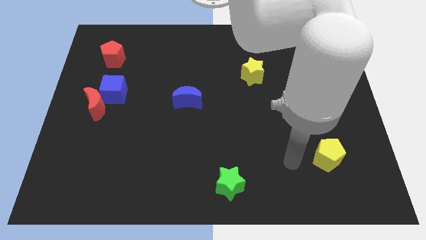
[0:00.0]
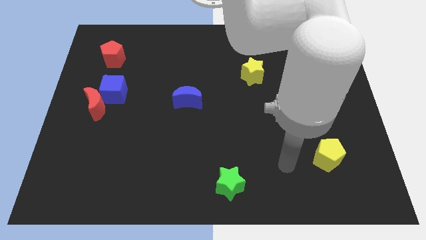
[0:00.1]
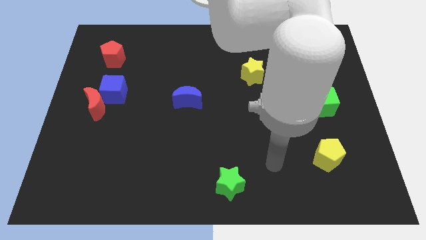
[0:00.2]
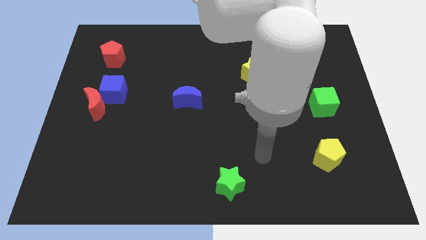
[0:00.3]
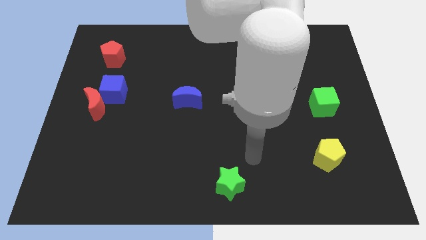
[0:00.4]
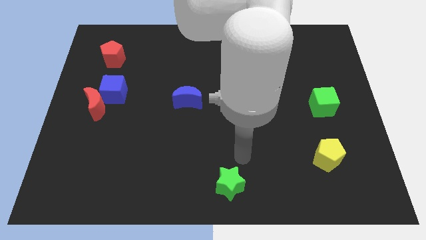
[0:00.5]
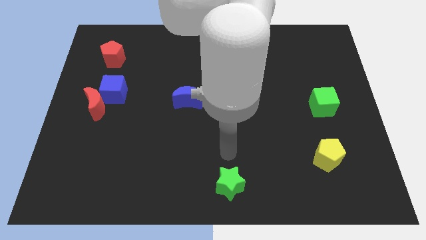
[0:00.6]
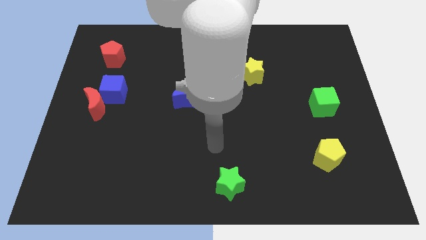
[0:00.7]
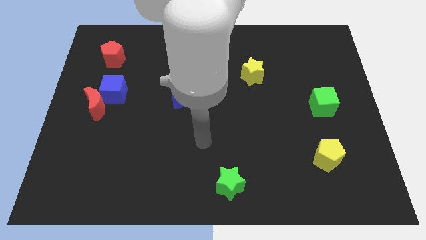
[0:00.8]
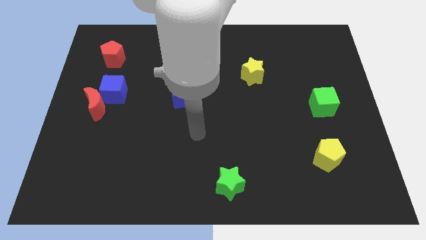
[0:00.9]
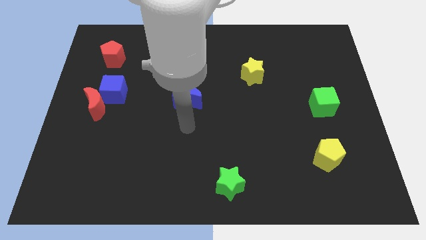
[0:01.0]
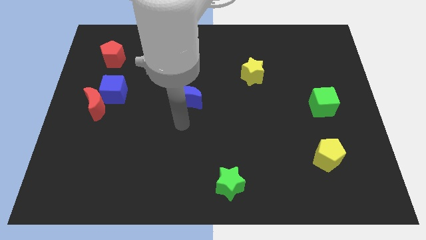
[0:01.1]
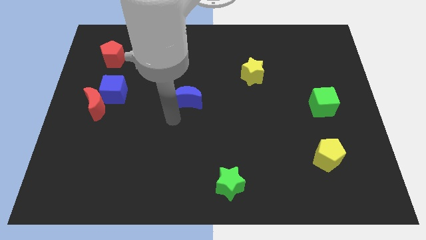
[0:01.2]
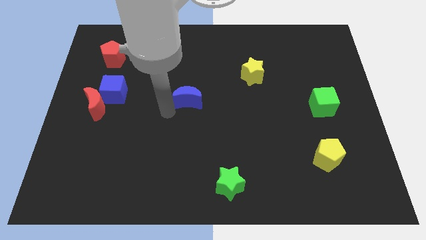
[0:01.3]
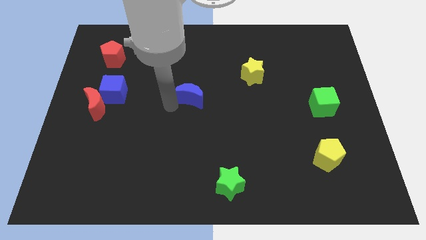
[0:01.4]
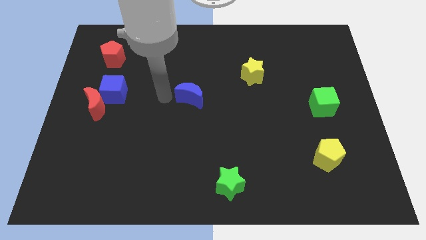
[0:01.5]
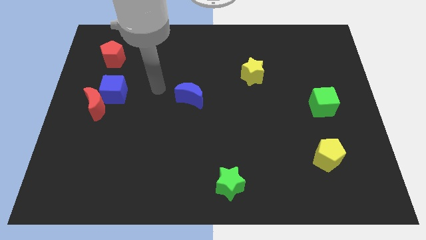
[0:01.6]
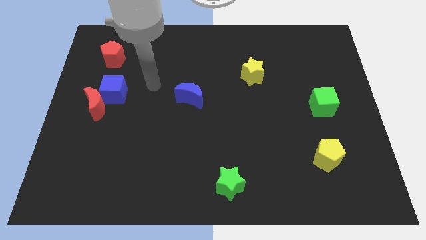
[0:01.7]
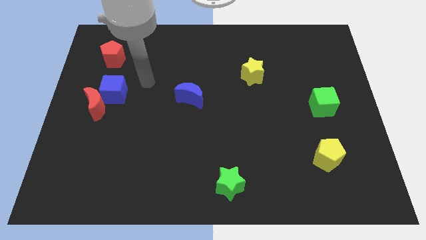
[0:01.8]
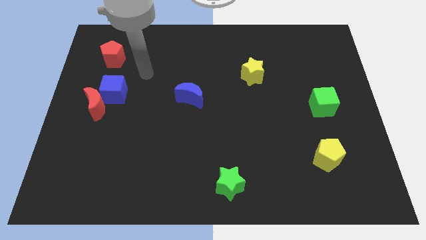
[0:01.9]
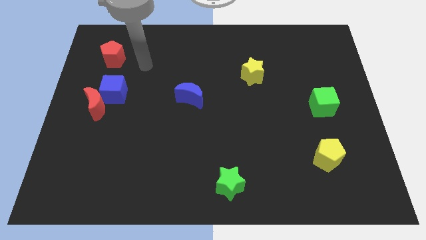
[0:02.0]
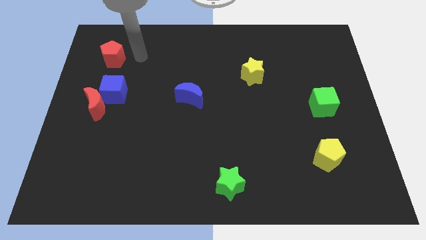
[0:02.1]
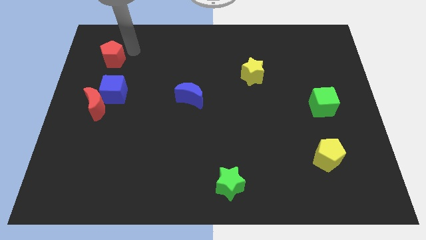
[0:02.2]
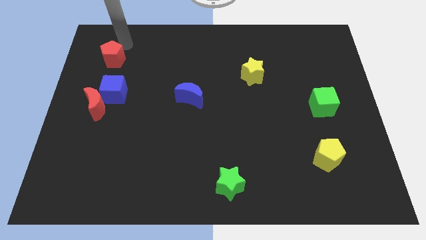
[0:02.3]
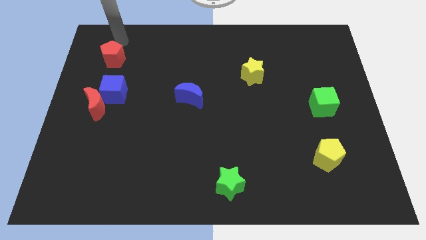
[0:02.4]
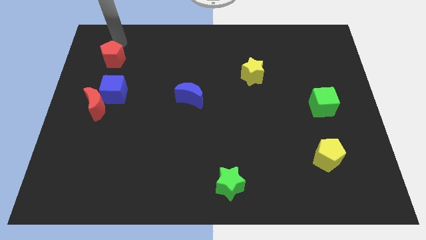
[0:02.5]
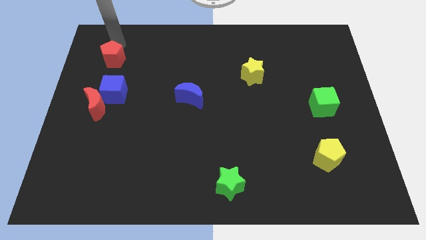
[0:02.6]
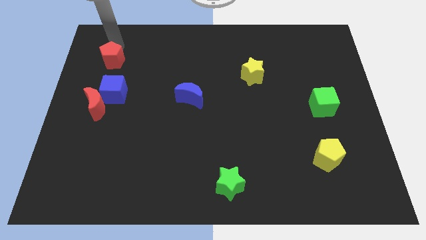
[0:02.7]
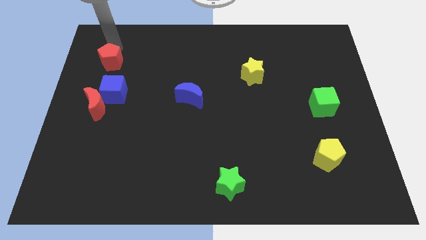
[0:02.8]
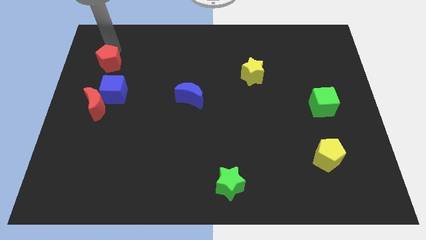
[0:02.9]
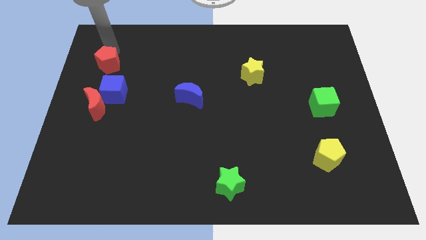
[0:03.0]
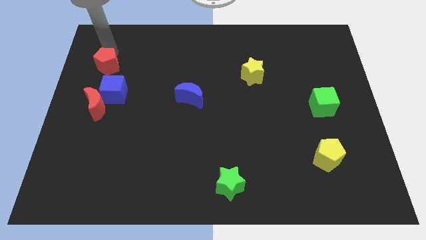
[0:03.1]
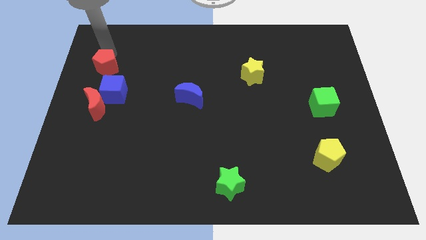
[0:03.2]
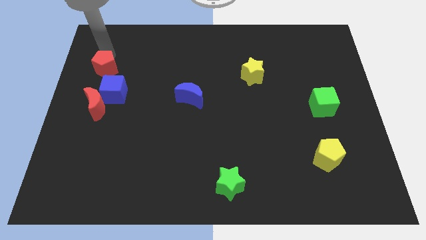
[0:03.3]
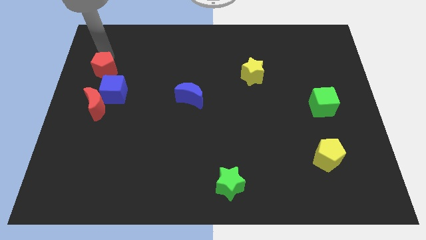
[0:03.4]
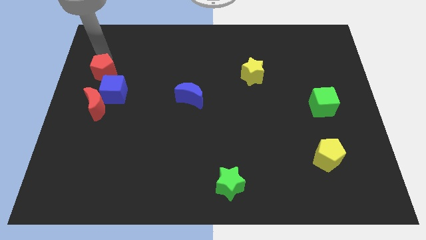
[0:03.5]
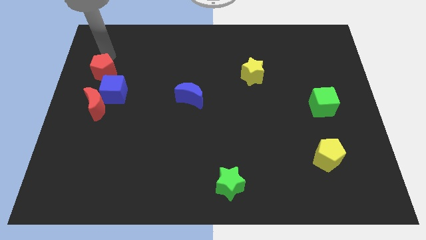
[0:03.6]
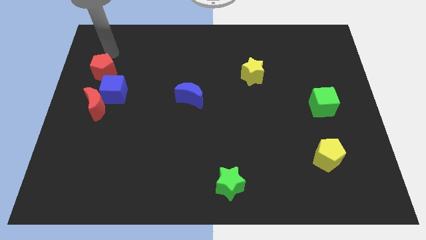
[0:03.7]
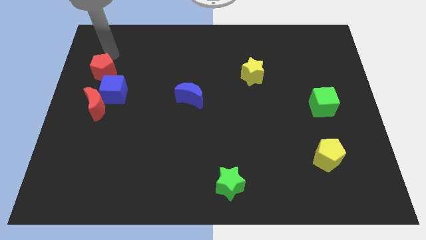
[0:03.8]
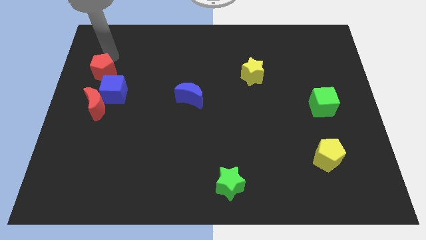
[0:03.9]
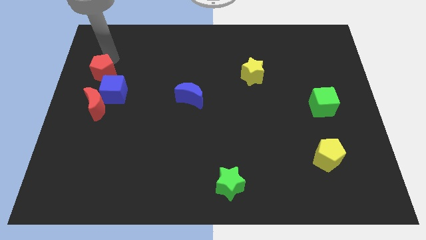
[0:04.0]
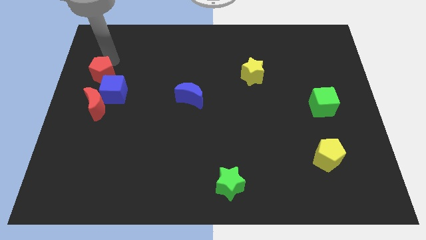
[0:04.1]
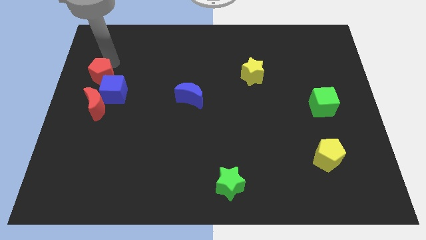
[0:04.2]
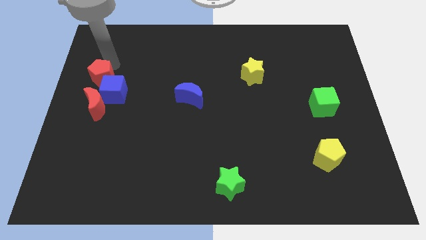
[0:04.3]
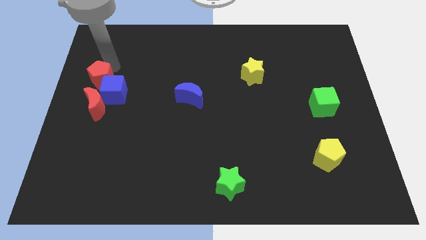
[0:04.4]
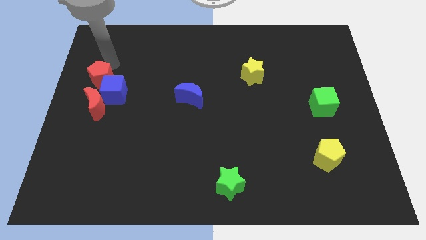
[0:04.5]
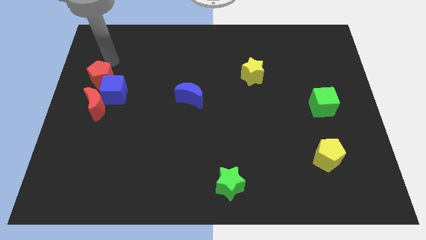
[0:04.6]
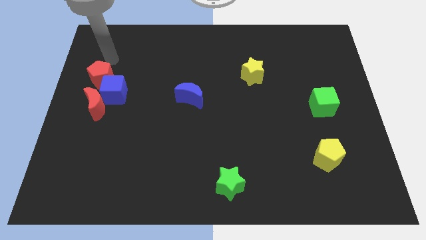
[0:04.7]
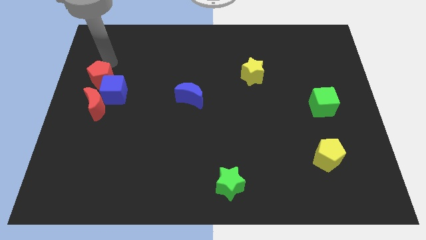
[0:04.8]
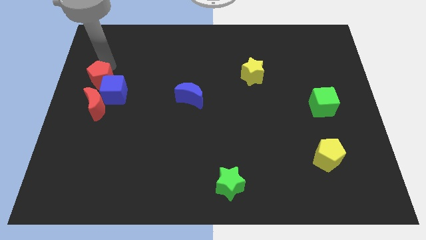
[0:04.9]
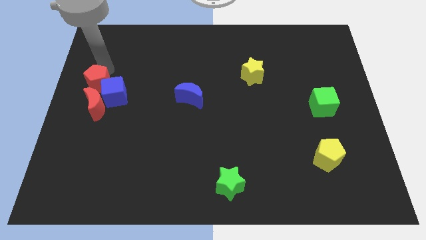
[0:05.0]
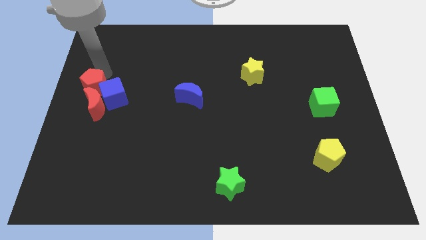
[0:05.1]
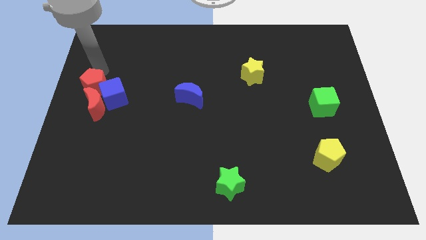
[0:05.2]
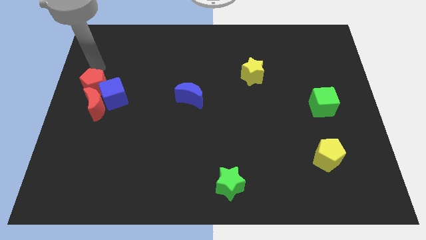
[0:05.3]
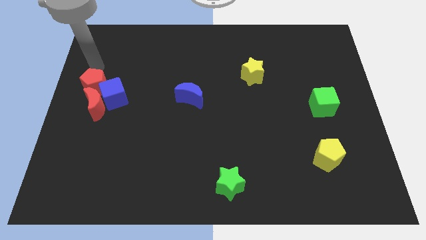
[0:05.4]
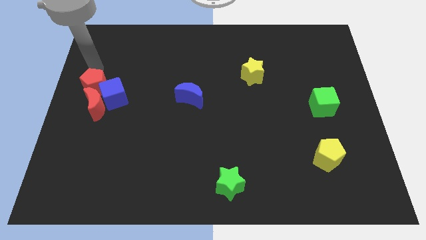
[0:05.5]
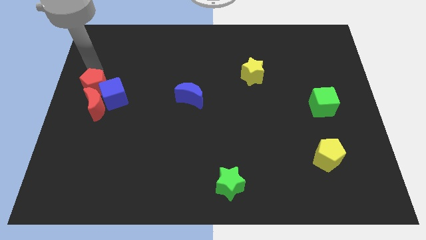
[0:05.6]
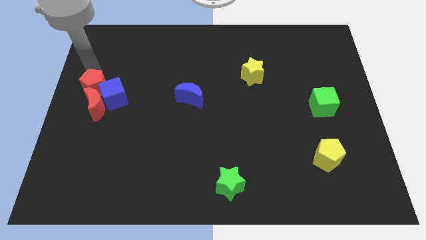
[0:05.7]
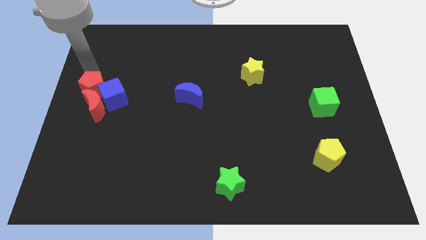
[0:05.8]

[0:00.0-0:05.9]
put the red pentagon next to the red moon

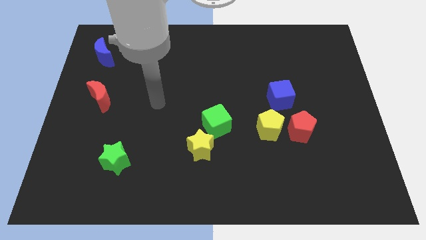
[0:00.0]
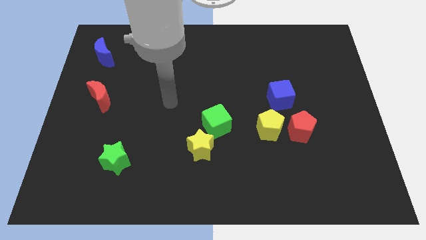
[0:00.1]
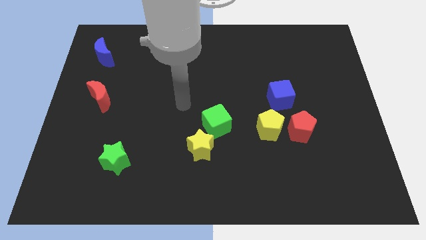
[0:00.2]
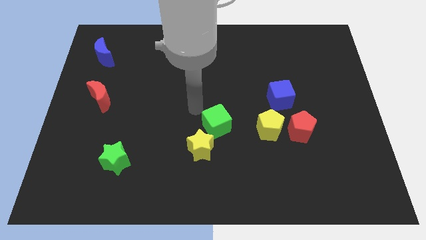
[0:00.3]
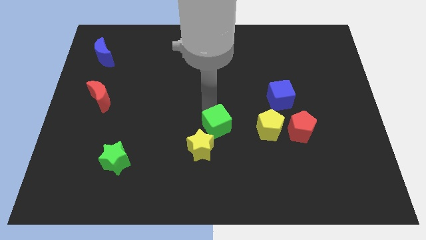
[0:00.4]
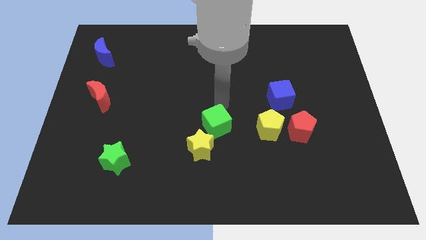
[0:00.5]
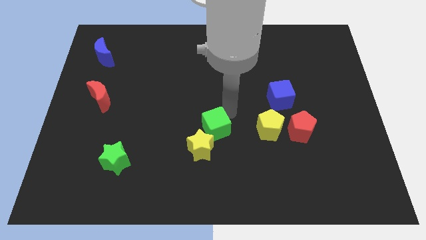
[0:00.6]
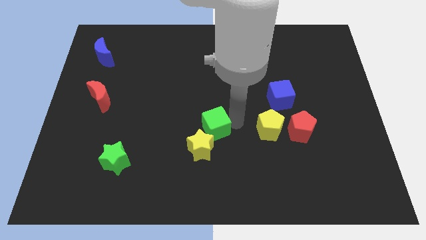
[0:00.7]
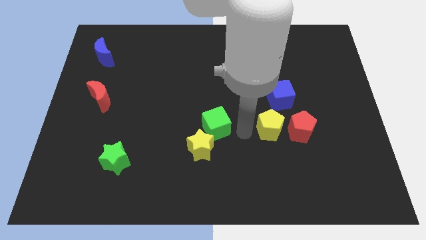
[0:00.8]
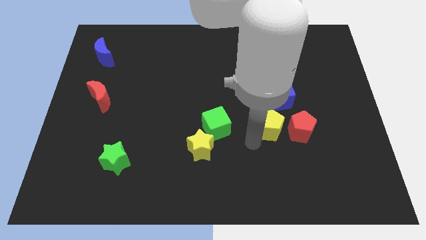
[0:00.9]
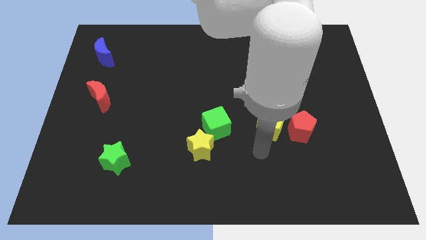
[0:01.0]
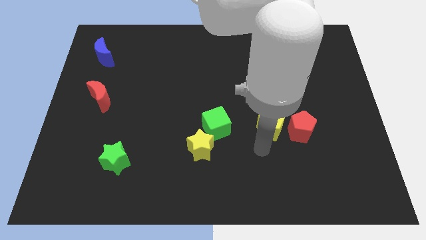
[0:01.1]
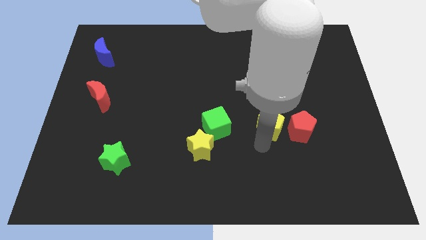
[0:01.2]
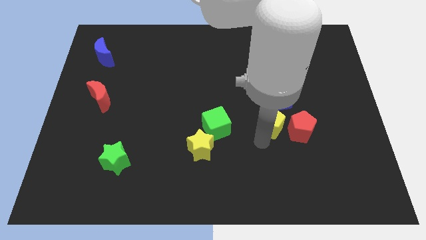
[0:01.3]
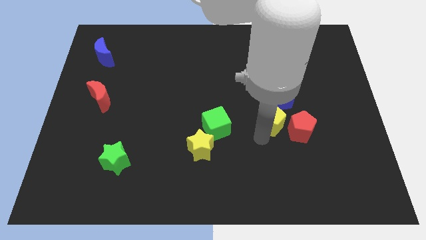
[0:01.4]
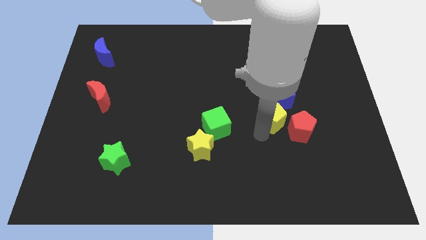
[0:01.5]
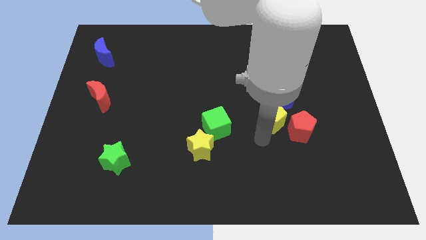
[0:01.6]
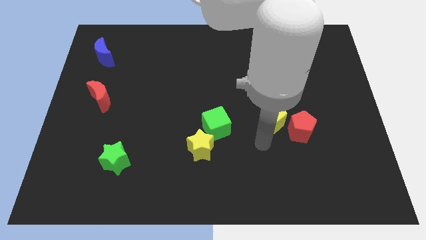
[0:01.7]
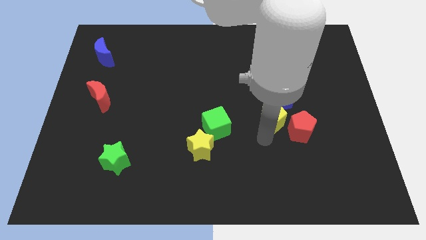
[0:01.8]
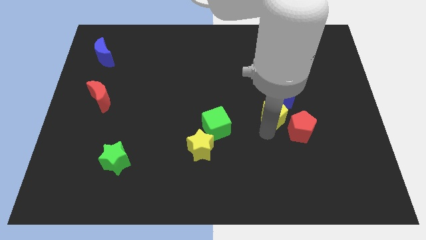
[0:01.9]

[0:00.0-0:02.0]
move the yellow pentagon towards the blue cube
